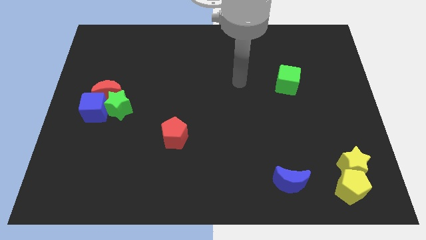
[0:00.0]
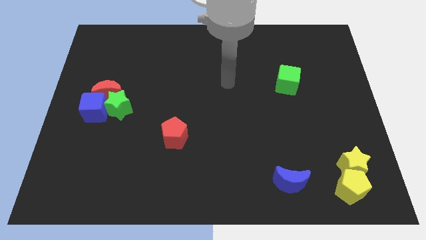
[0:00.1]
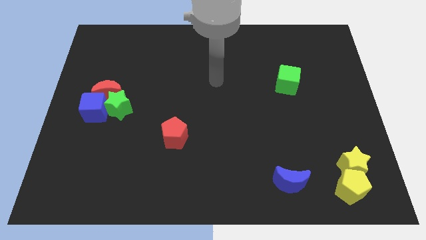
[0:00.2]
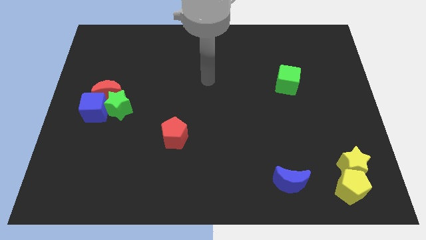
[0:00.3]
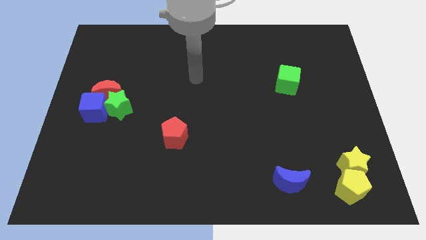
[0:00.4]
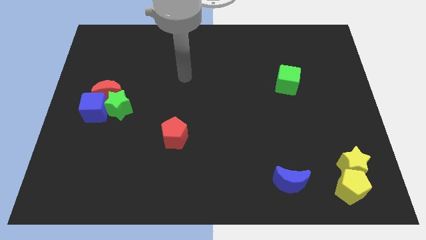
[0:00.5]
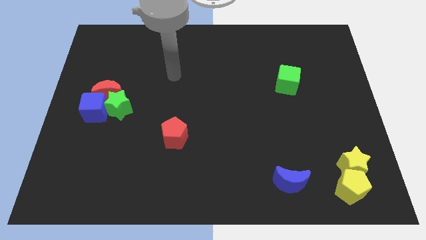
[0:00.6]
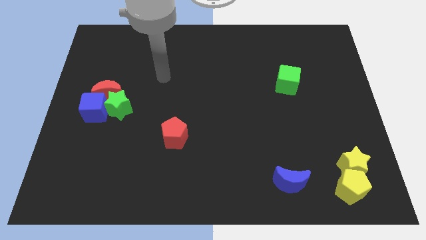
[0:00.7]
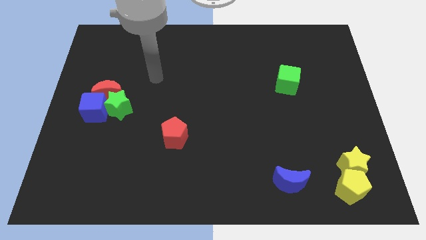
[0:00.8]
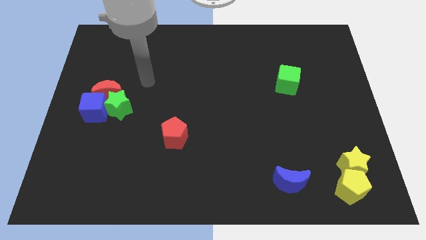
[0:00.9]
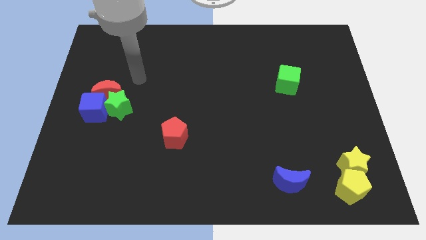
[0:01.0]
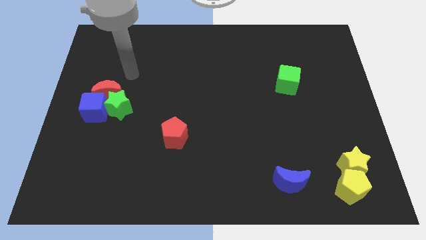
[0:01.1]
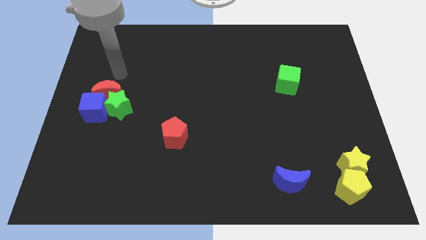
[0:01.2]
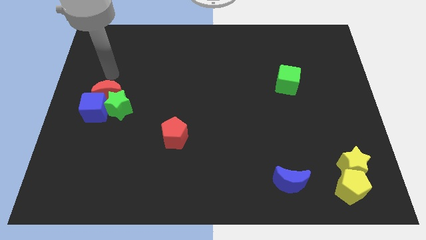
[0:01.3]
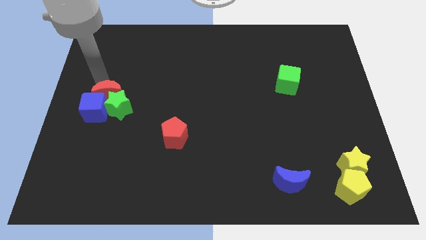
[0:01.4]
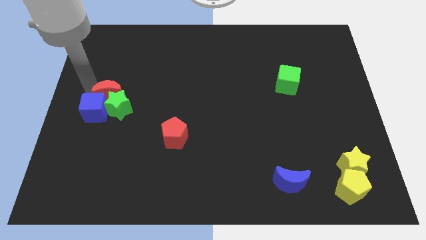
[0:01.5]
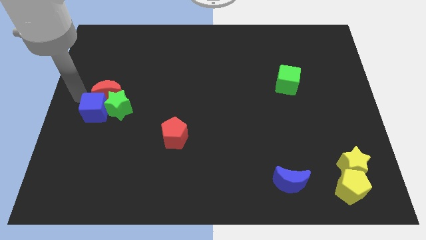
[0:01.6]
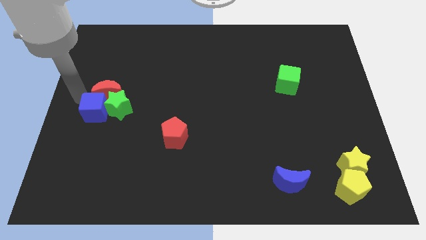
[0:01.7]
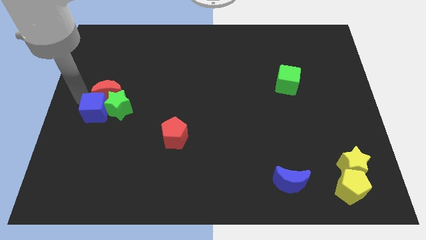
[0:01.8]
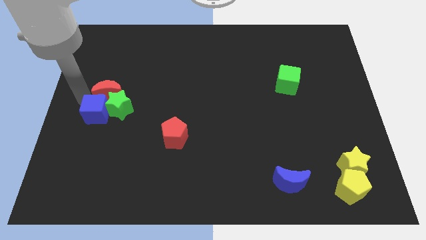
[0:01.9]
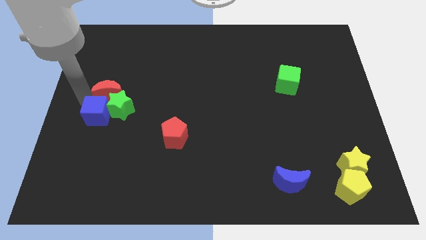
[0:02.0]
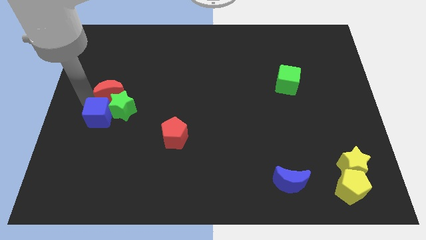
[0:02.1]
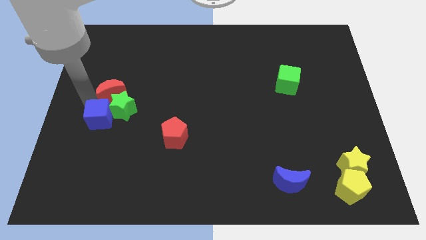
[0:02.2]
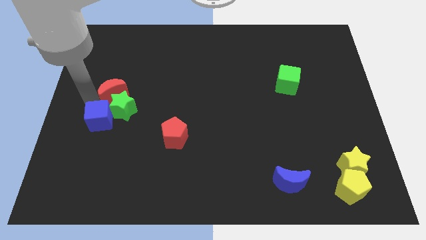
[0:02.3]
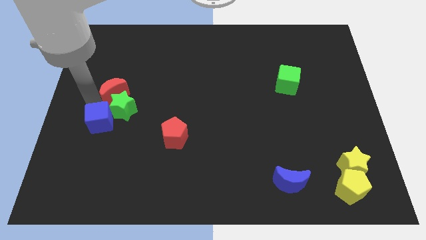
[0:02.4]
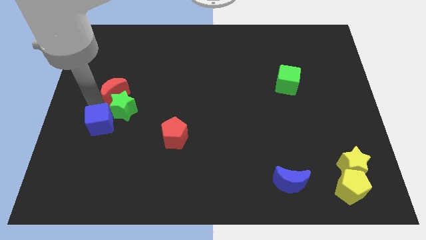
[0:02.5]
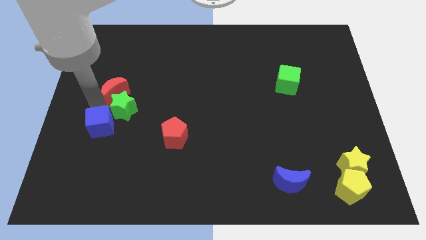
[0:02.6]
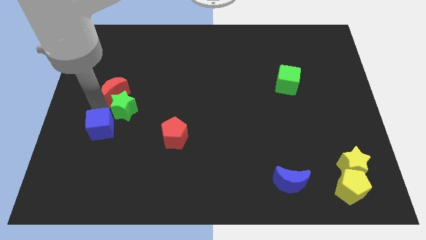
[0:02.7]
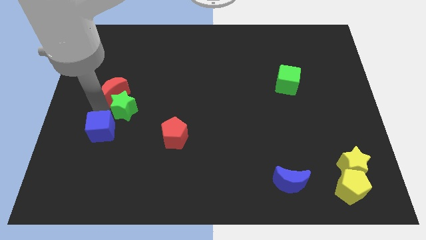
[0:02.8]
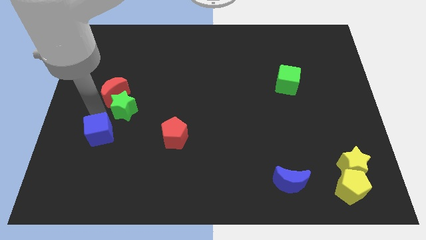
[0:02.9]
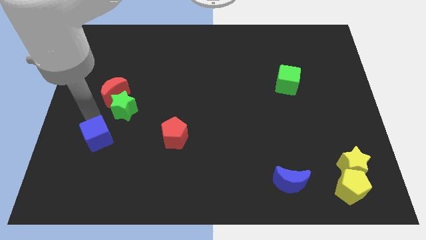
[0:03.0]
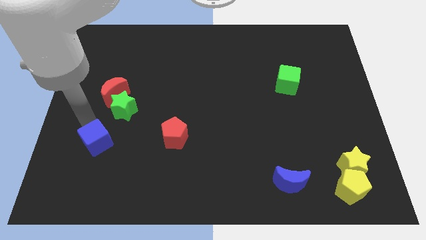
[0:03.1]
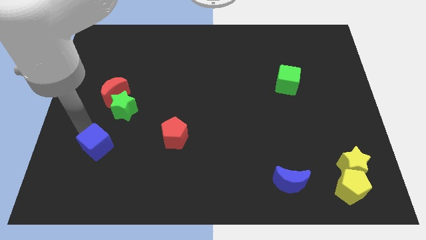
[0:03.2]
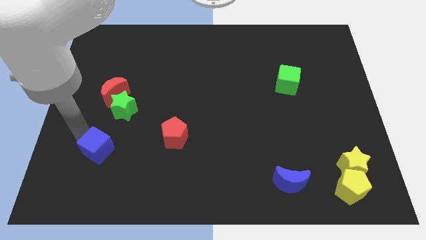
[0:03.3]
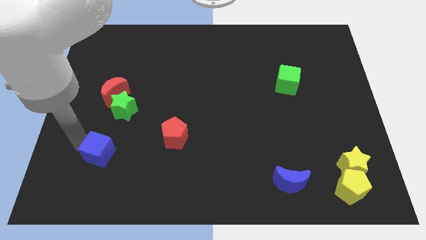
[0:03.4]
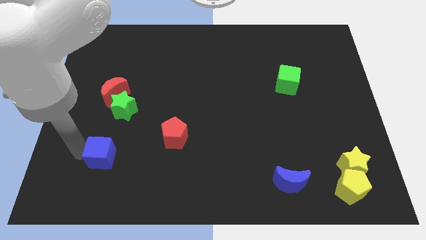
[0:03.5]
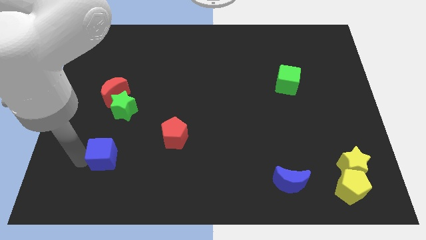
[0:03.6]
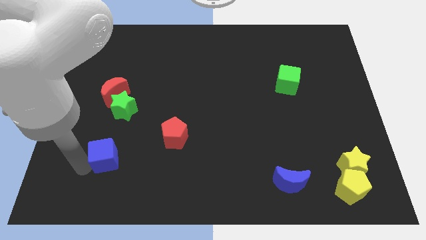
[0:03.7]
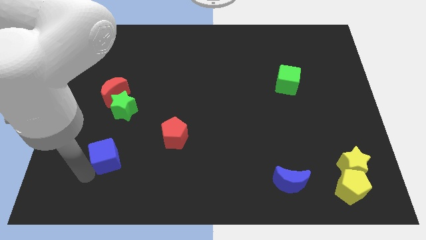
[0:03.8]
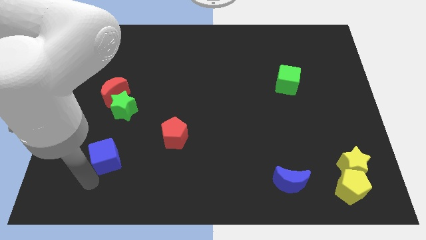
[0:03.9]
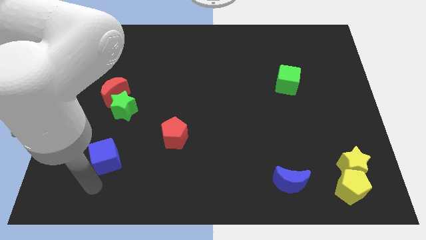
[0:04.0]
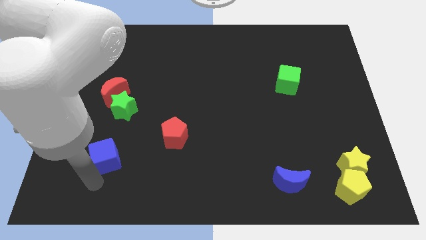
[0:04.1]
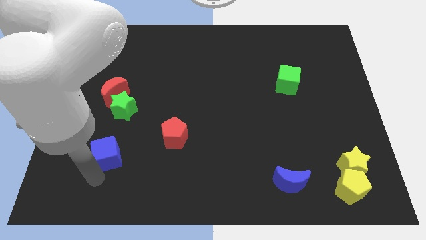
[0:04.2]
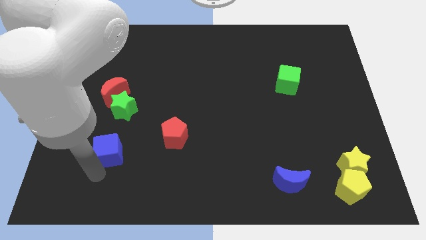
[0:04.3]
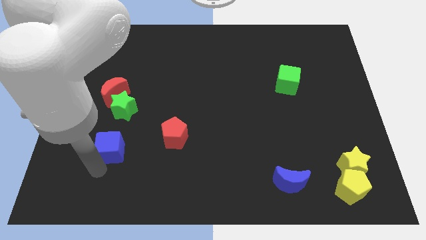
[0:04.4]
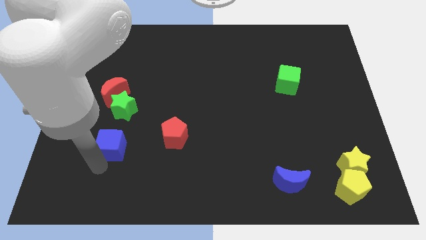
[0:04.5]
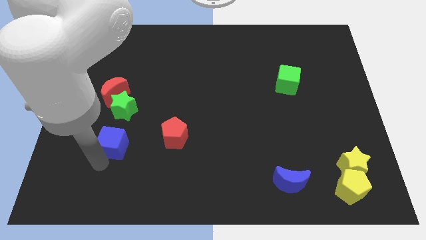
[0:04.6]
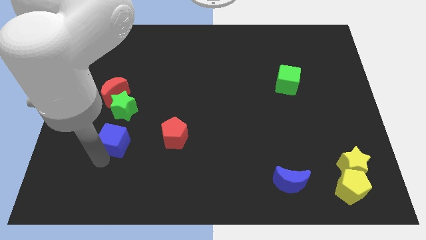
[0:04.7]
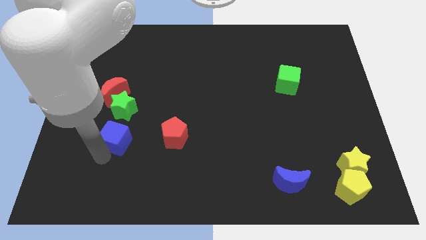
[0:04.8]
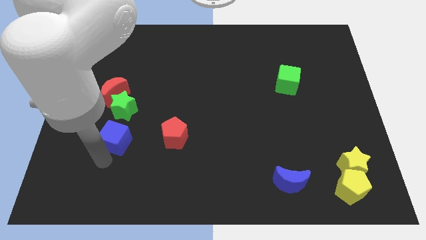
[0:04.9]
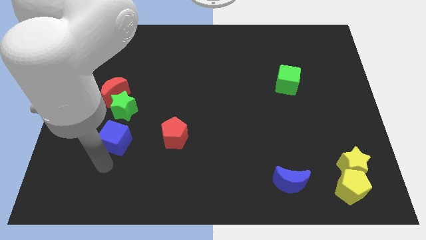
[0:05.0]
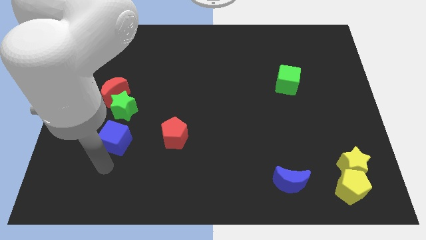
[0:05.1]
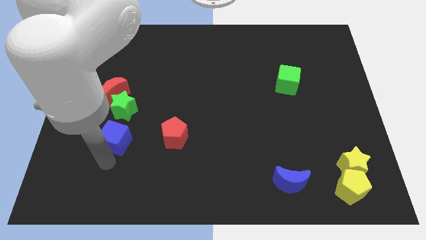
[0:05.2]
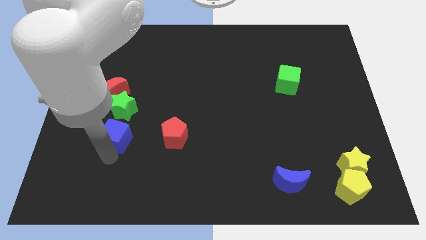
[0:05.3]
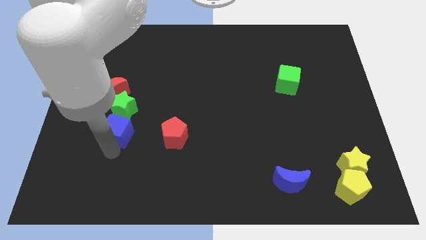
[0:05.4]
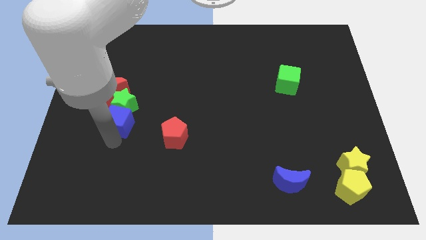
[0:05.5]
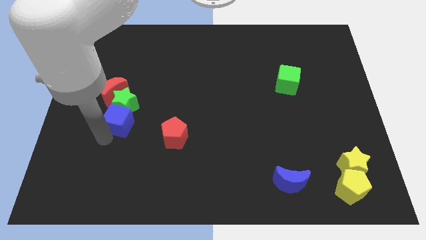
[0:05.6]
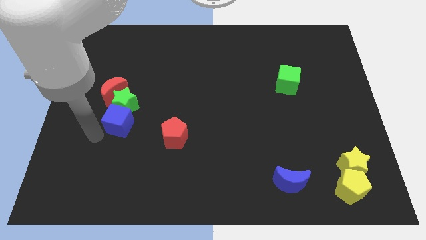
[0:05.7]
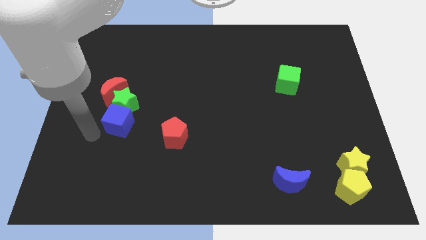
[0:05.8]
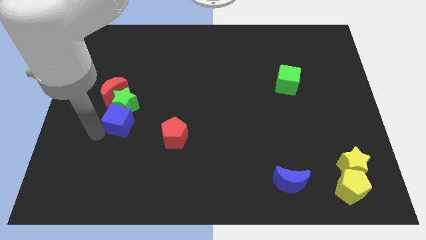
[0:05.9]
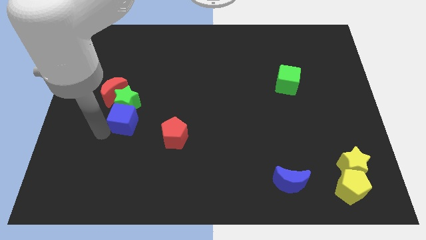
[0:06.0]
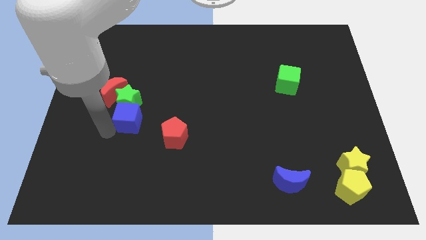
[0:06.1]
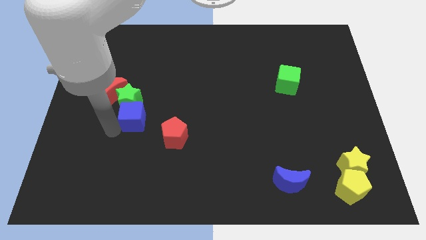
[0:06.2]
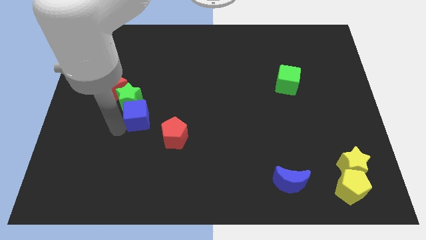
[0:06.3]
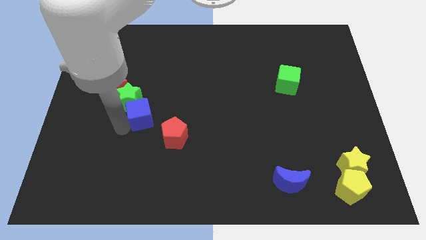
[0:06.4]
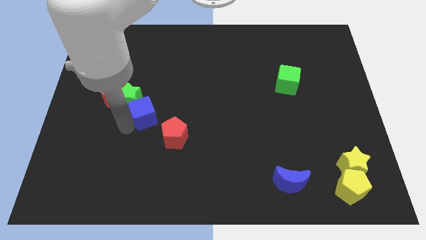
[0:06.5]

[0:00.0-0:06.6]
push the blue cube to the right of the green star
